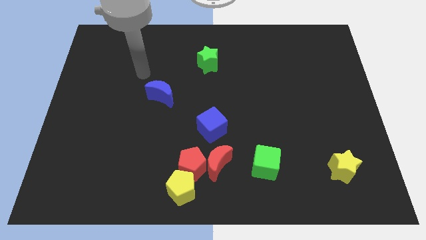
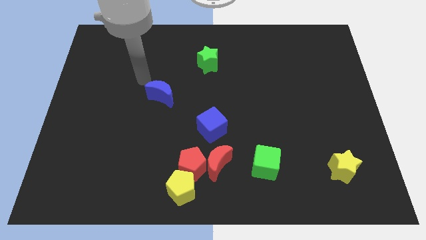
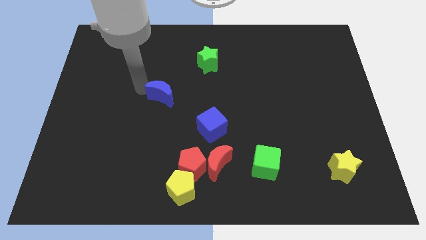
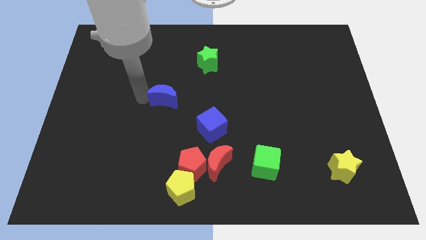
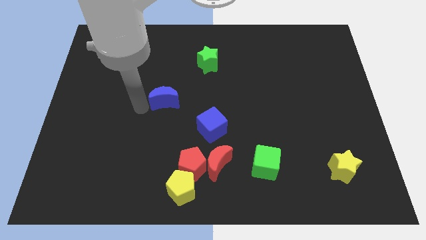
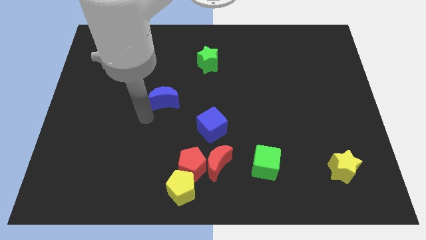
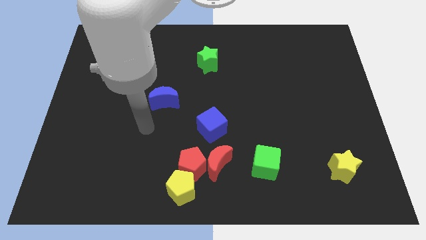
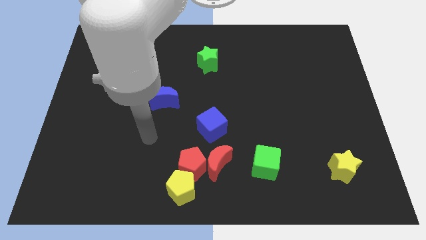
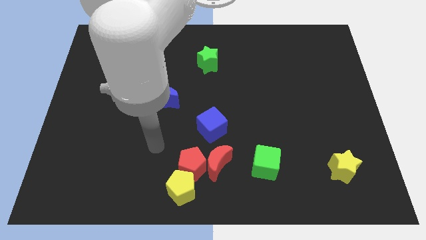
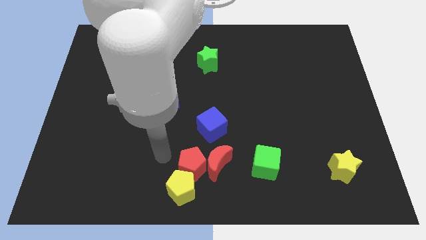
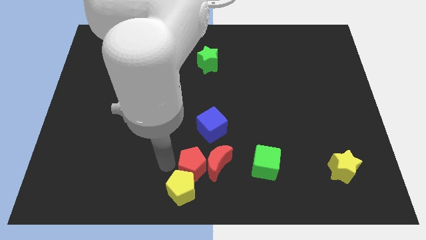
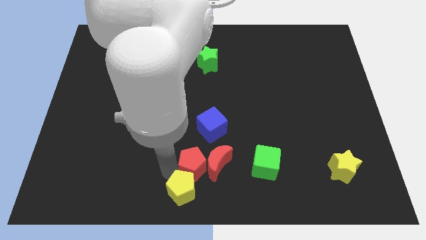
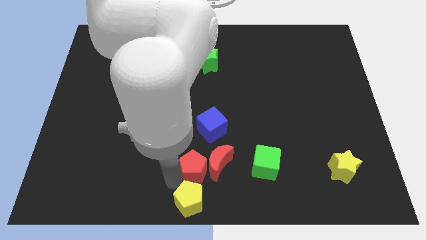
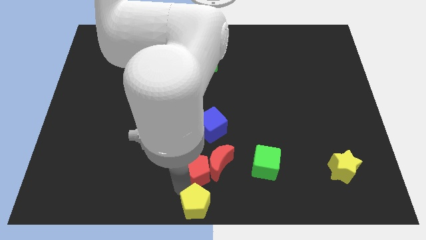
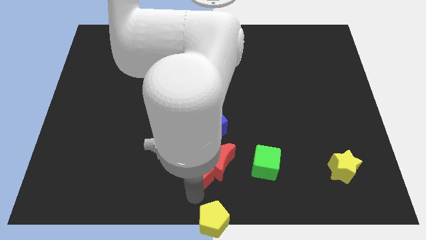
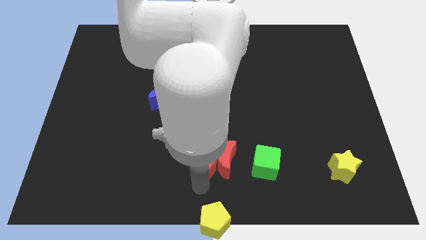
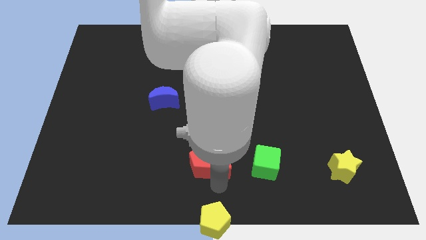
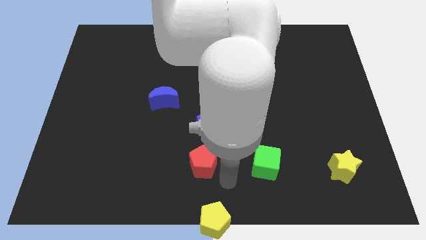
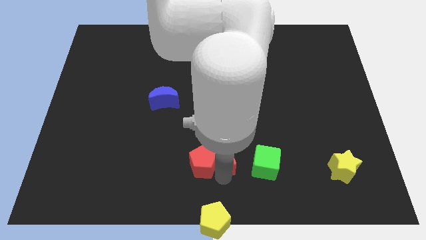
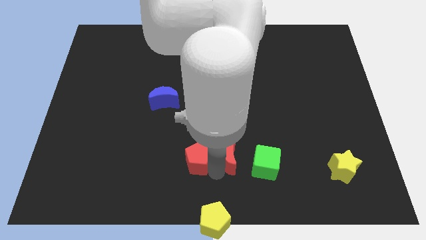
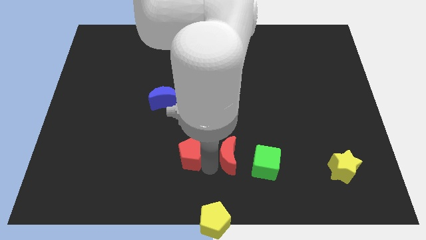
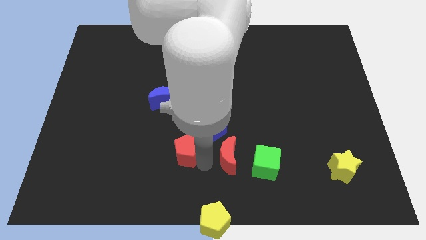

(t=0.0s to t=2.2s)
separate the red pentagon from the red moon and yellow pentagon

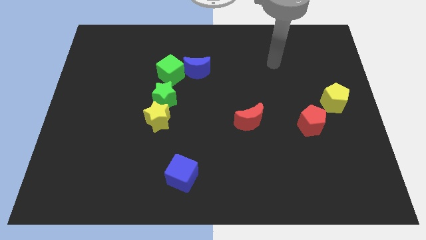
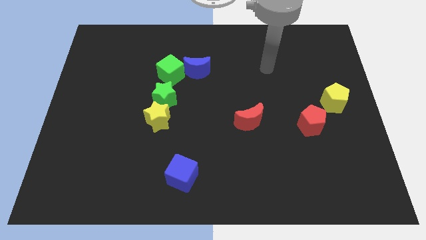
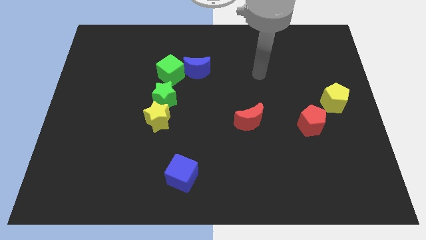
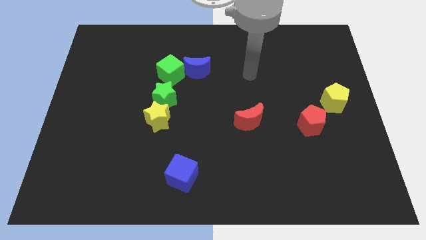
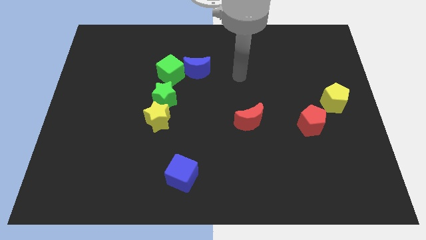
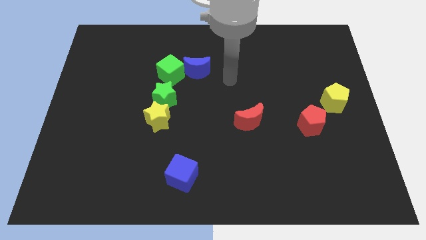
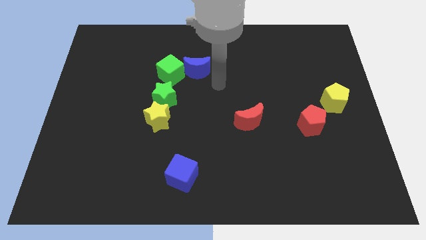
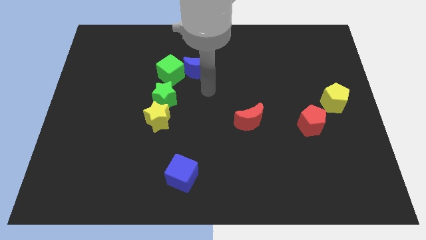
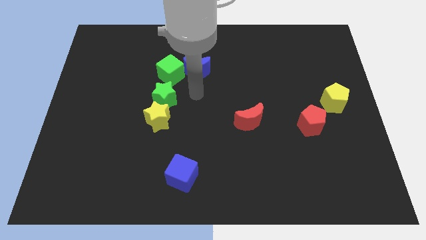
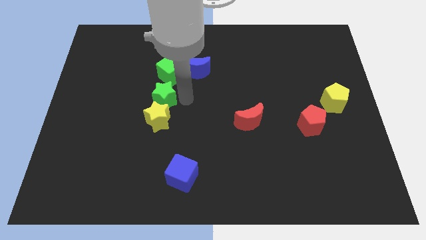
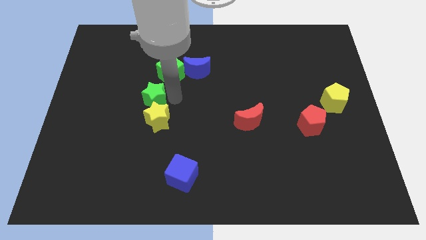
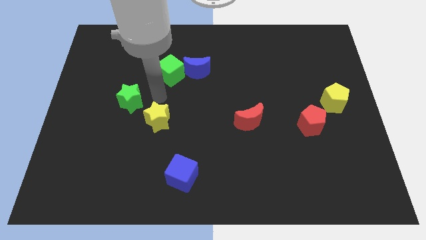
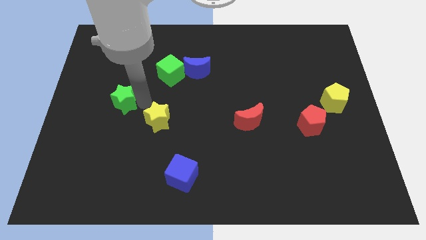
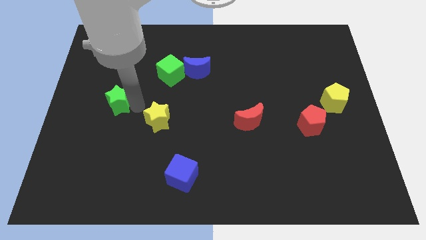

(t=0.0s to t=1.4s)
move the yellow star away from the green star

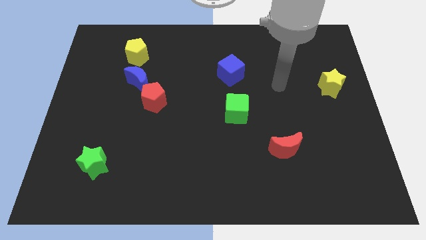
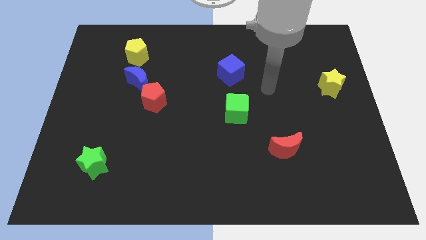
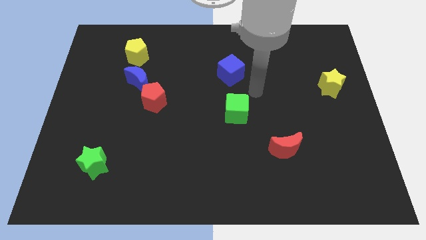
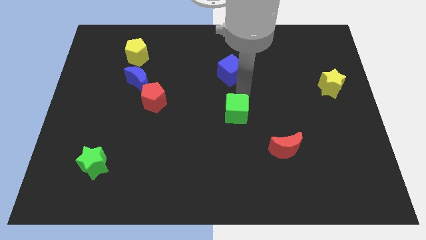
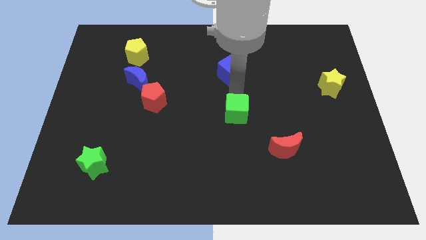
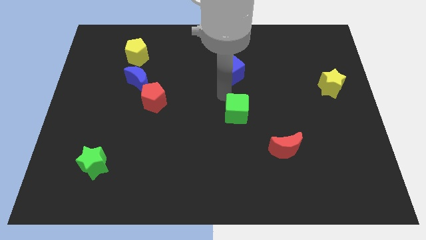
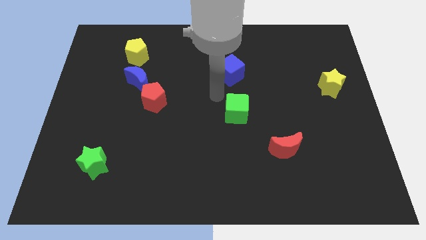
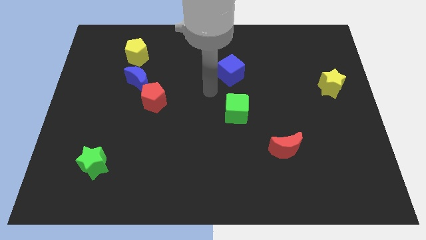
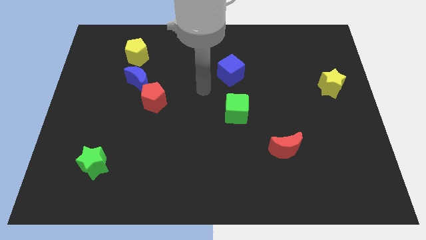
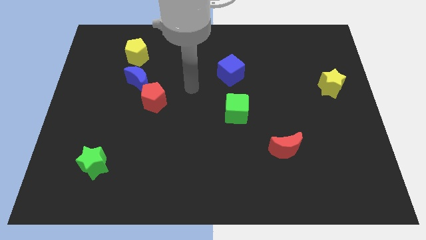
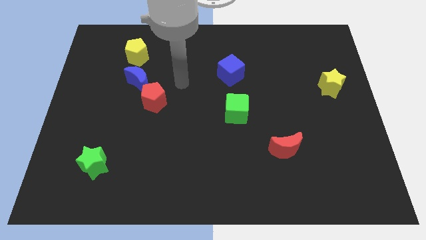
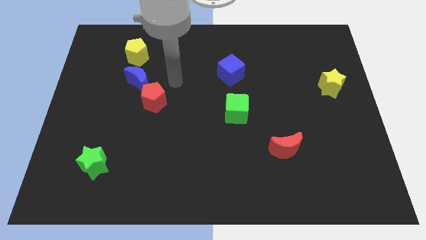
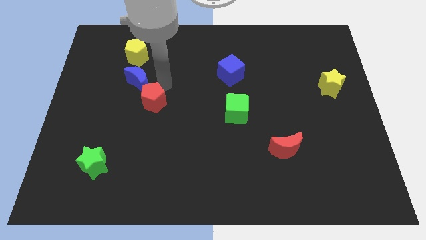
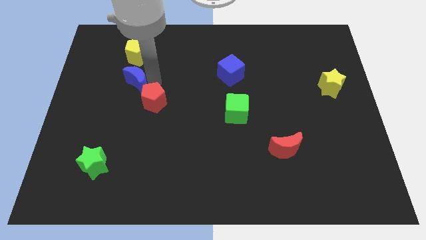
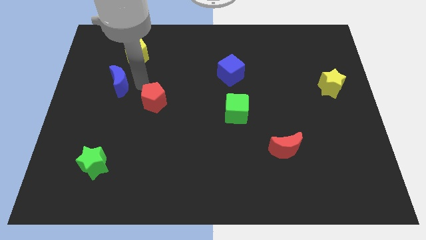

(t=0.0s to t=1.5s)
pull the red pentagon apart from the blue moon

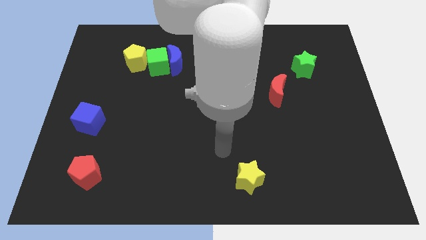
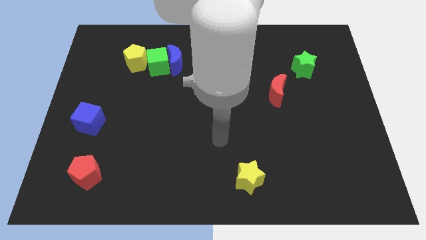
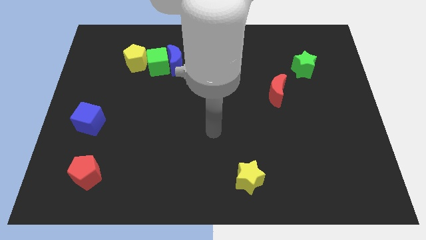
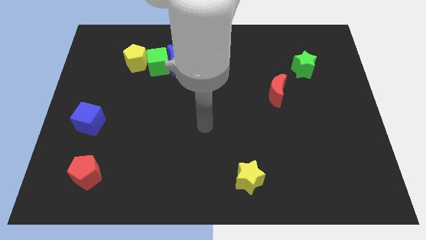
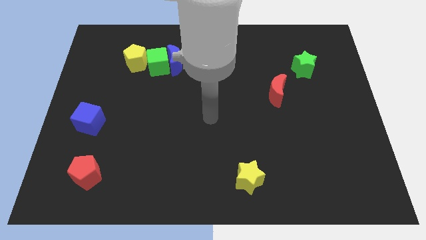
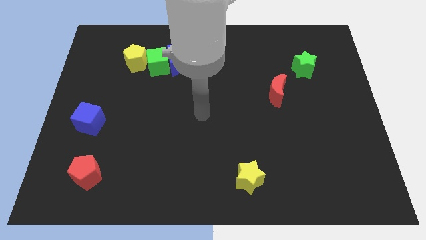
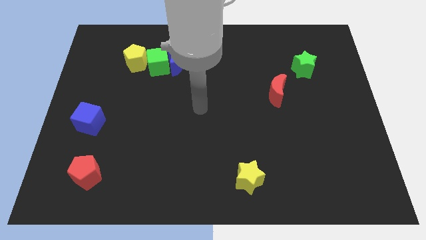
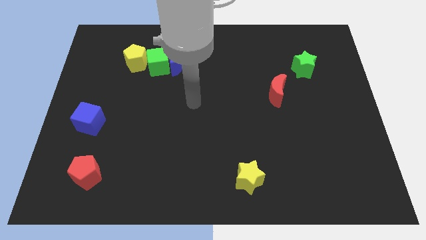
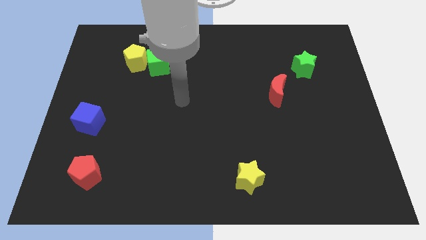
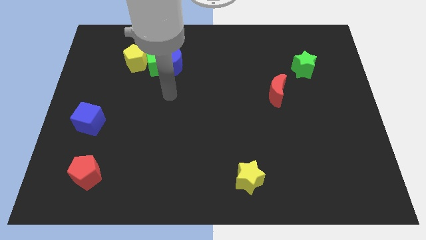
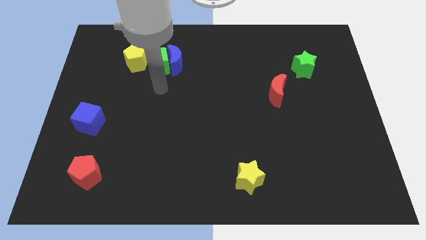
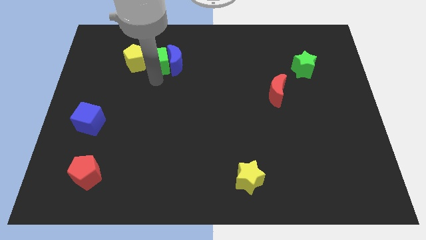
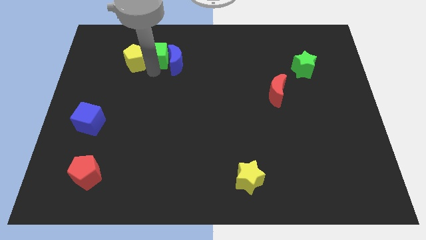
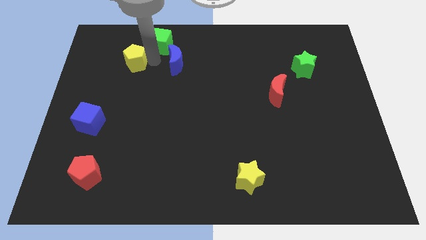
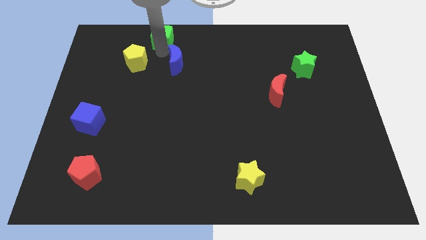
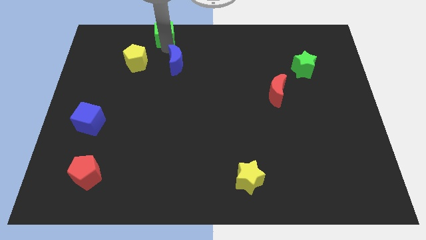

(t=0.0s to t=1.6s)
move the blue moon away from the green cube

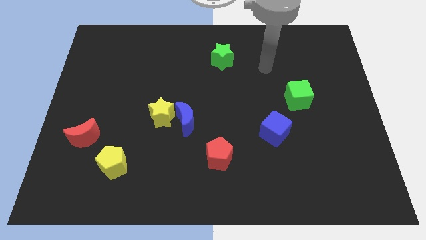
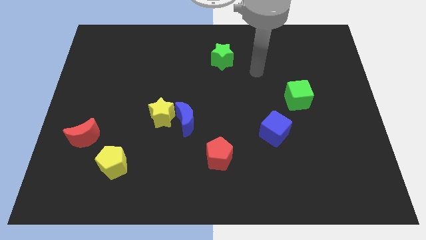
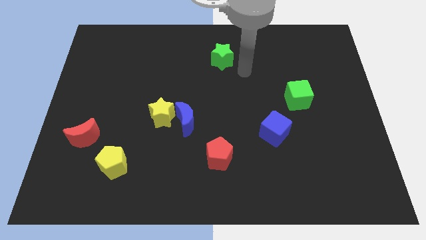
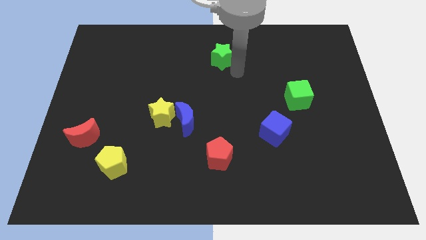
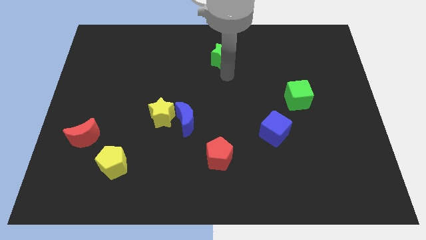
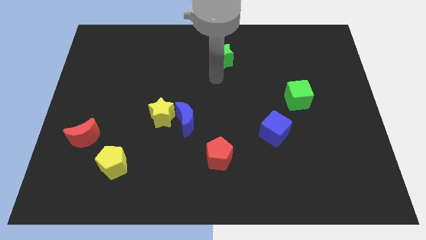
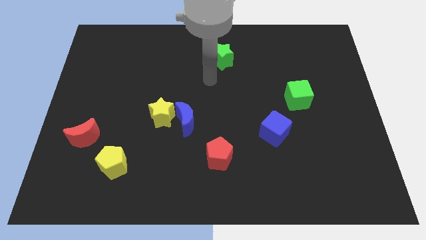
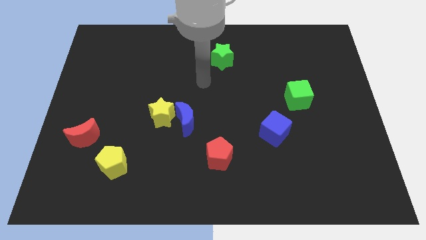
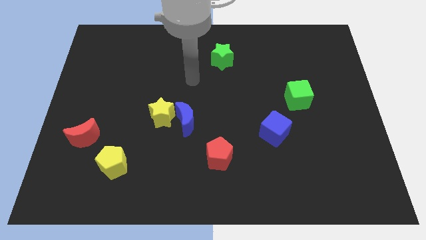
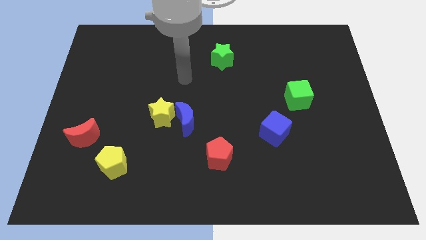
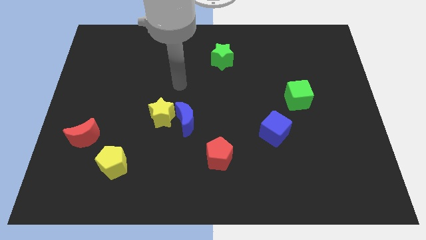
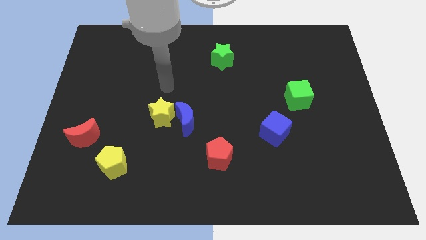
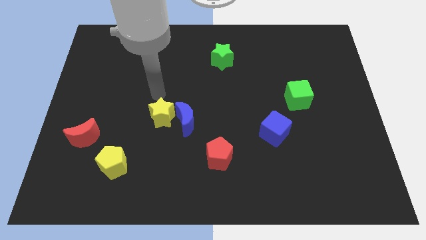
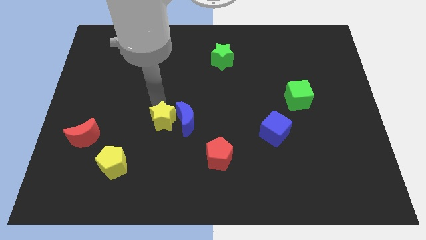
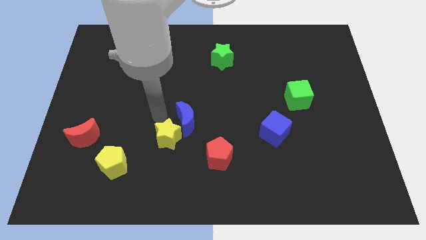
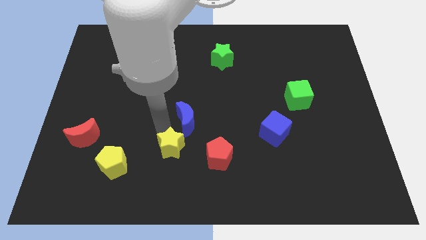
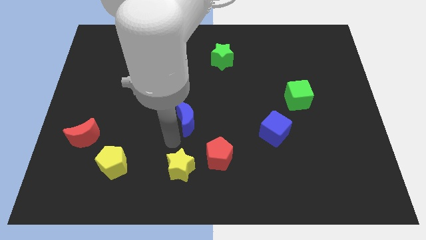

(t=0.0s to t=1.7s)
separate the blue moon from the yellow star

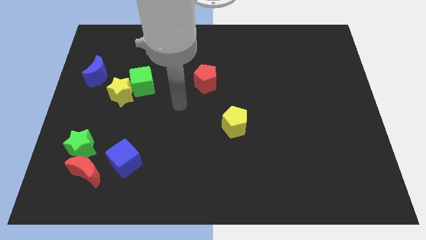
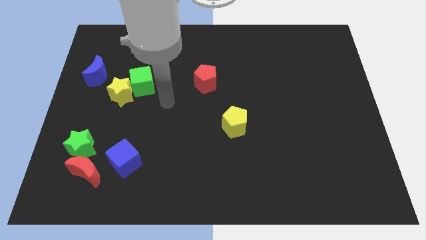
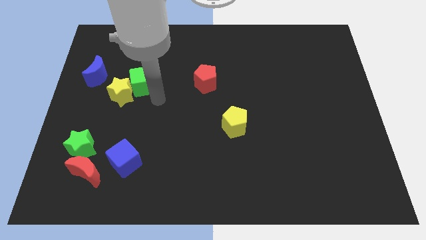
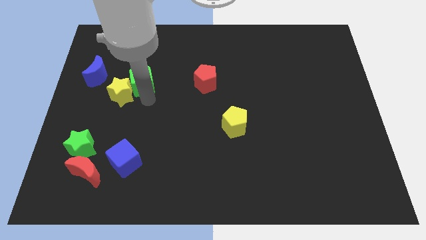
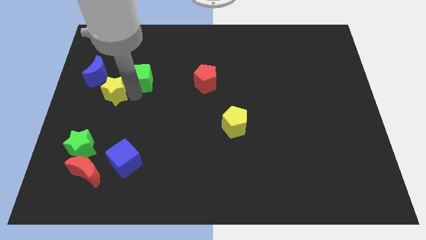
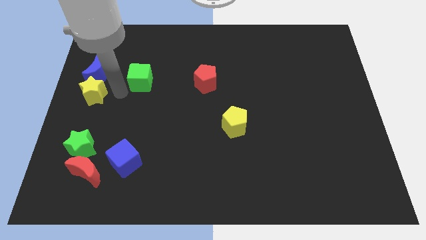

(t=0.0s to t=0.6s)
move the green cube away from the yellow star

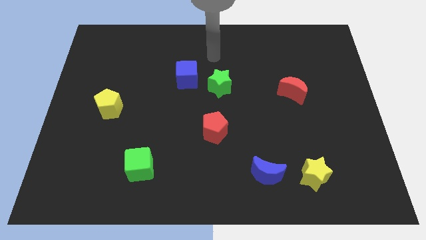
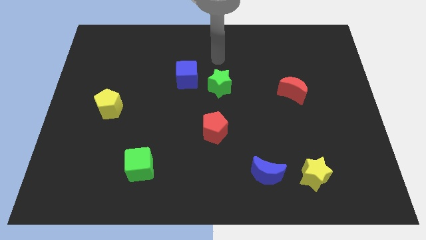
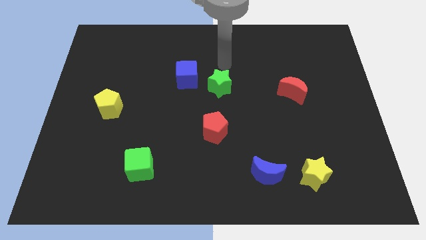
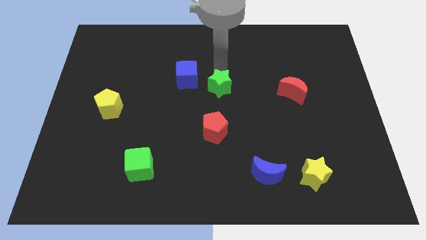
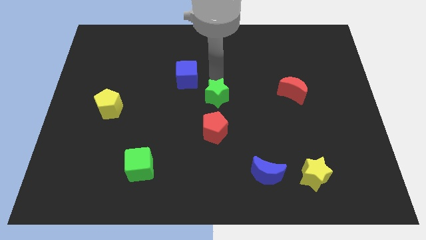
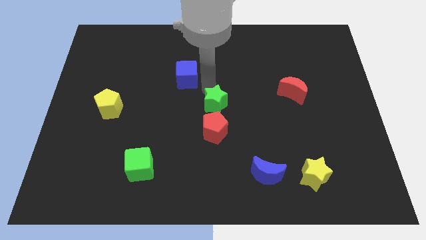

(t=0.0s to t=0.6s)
pull the blue cube apart from the green star
